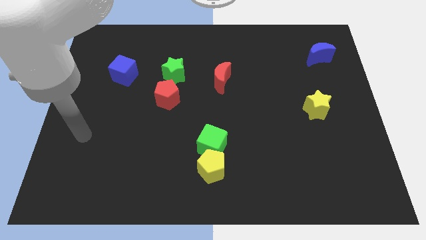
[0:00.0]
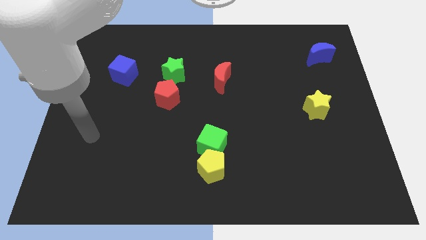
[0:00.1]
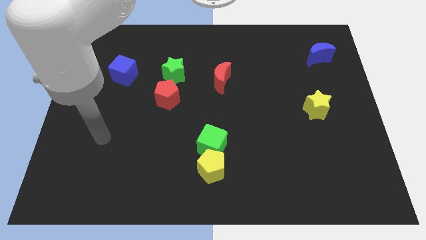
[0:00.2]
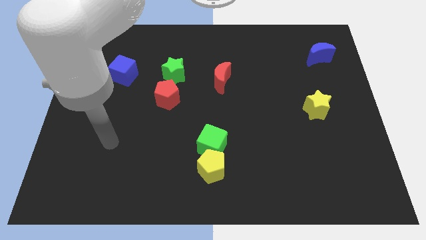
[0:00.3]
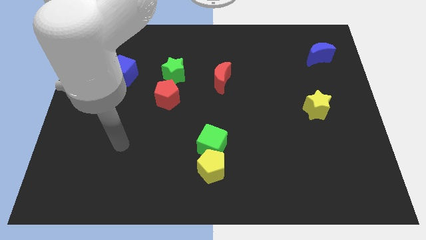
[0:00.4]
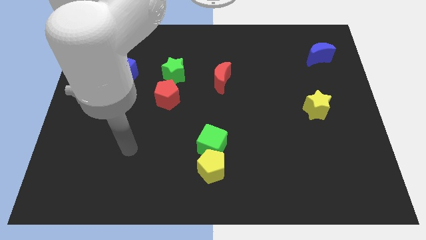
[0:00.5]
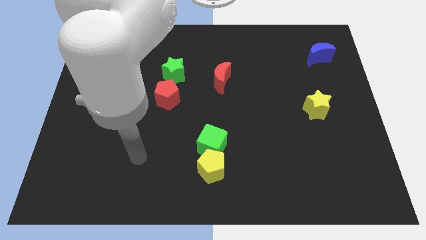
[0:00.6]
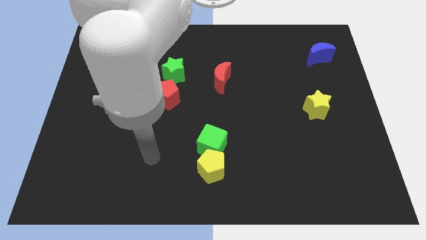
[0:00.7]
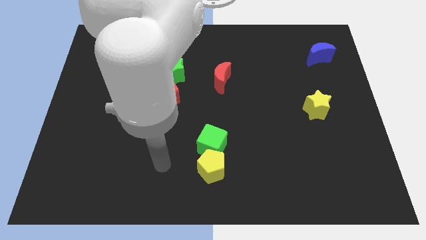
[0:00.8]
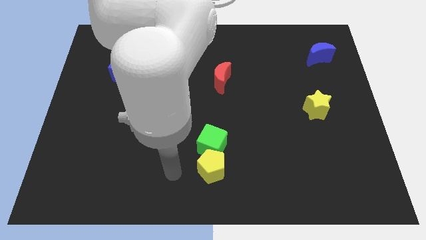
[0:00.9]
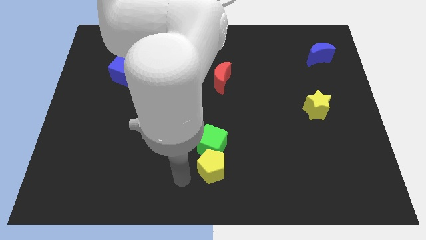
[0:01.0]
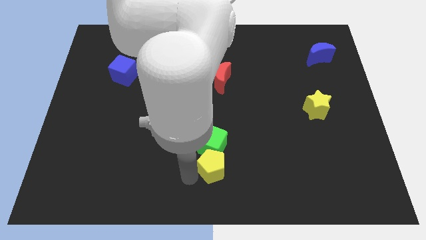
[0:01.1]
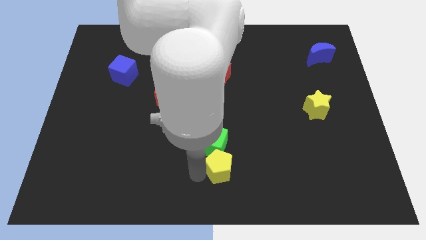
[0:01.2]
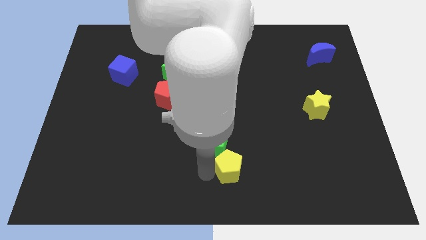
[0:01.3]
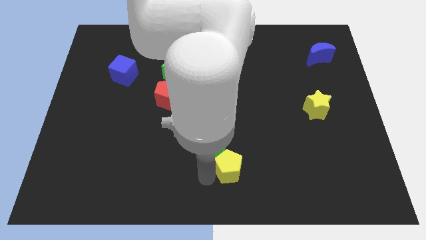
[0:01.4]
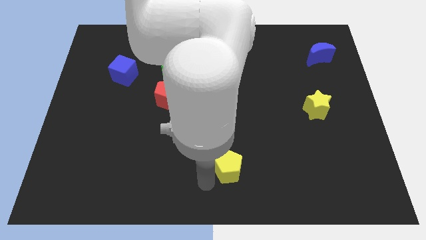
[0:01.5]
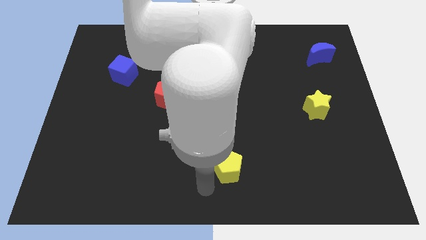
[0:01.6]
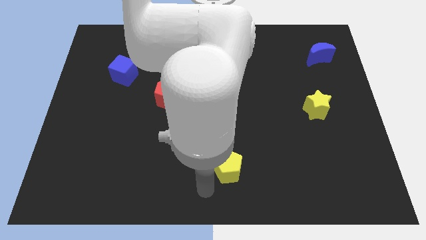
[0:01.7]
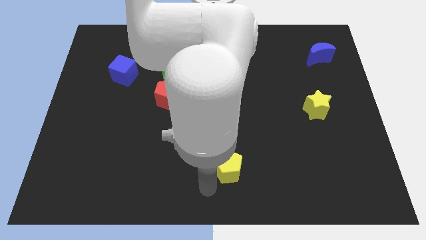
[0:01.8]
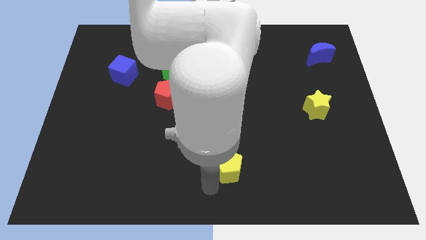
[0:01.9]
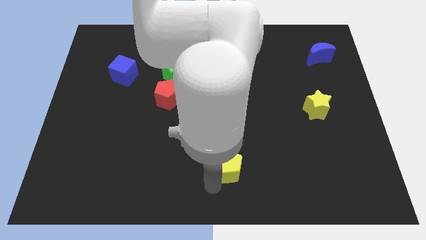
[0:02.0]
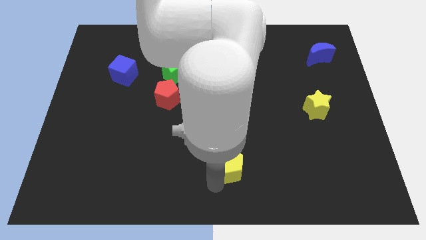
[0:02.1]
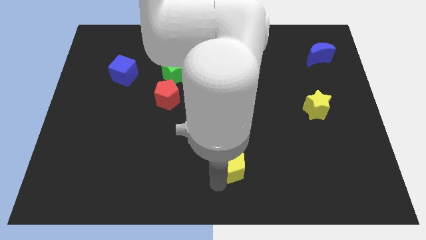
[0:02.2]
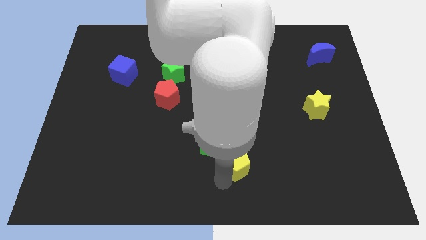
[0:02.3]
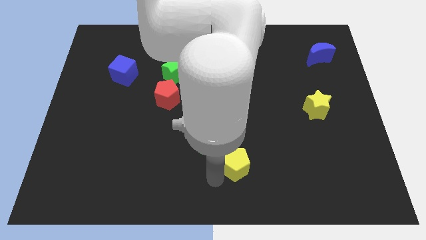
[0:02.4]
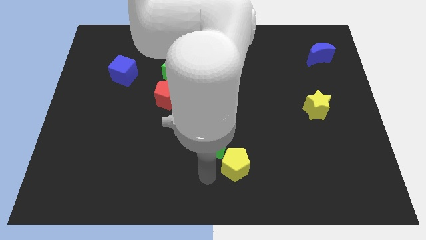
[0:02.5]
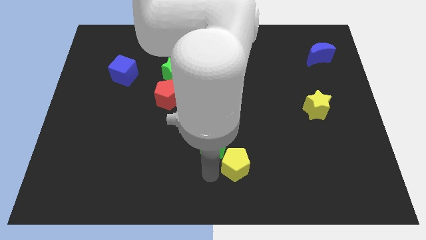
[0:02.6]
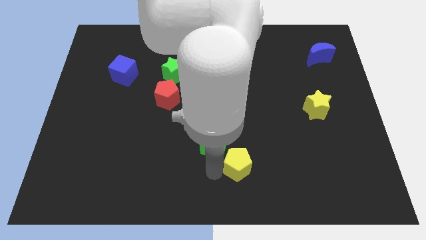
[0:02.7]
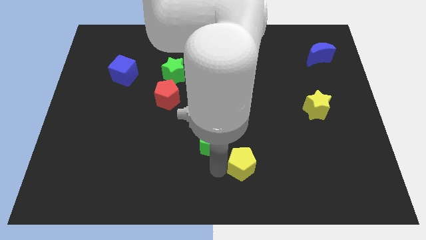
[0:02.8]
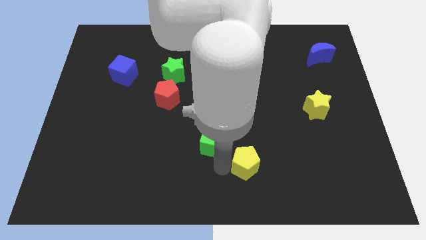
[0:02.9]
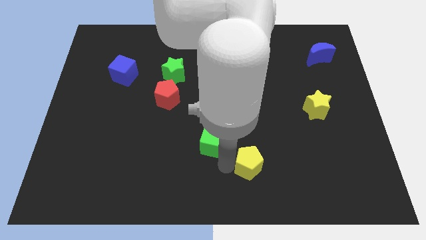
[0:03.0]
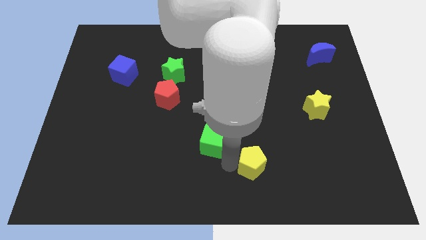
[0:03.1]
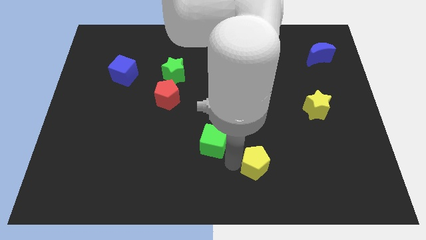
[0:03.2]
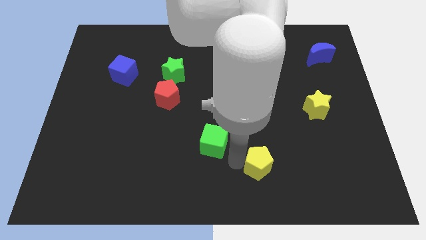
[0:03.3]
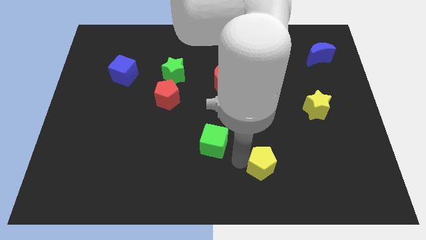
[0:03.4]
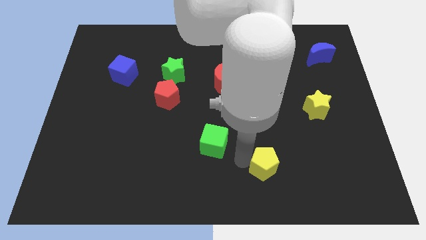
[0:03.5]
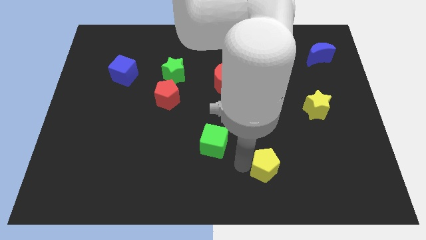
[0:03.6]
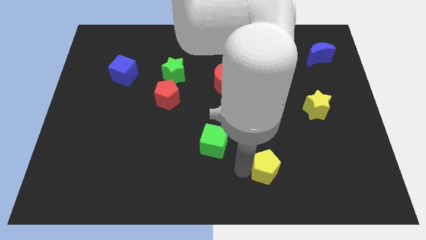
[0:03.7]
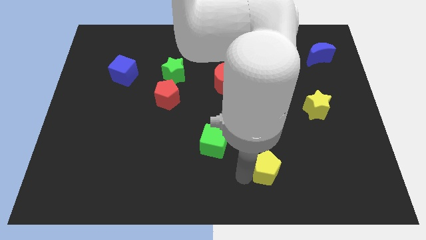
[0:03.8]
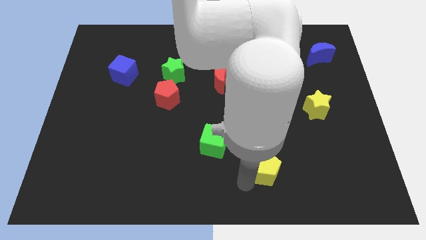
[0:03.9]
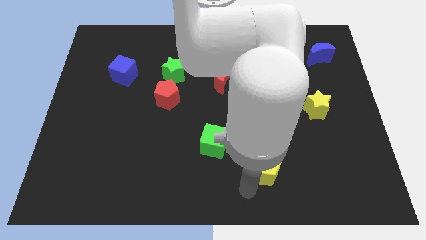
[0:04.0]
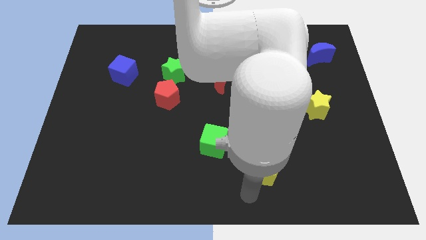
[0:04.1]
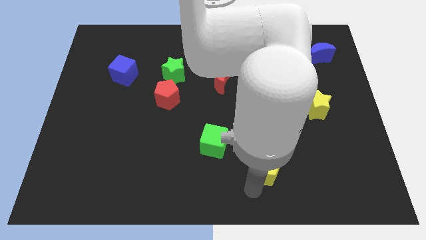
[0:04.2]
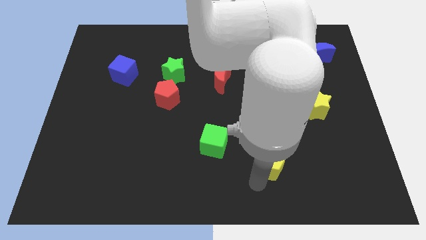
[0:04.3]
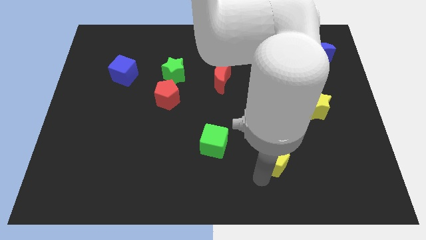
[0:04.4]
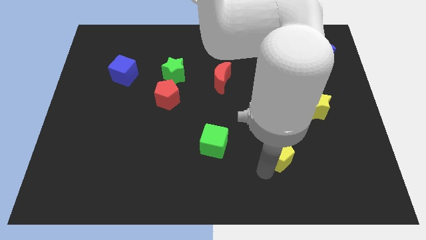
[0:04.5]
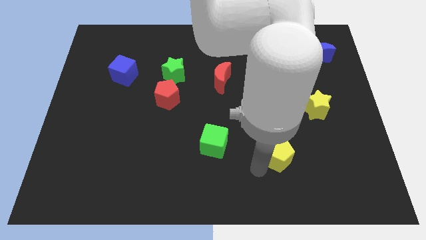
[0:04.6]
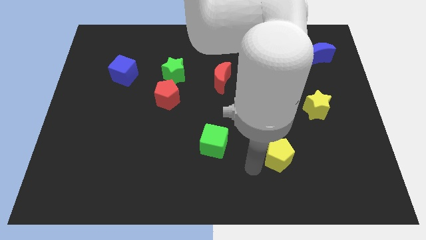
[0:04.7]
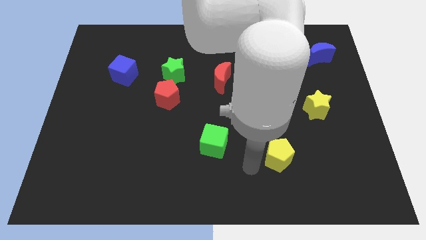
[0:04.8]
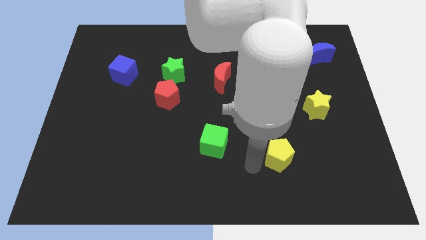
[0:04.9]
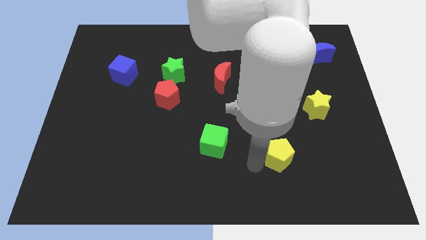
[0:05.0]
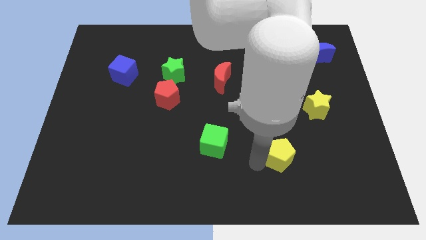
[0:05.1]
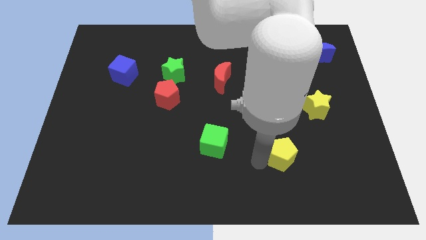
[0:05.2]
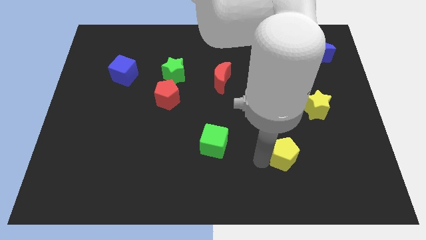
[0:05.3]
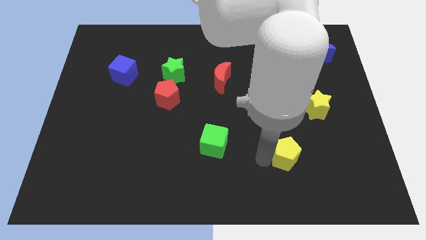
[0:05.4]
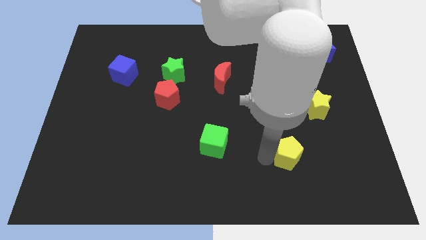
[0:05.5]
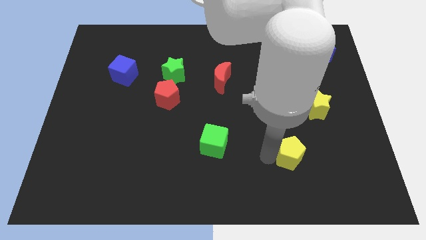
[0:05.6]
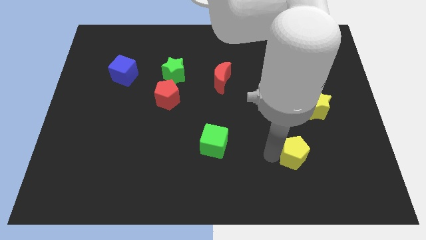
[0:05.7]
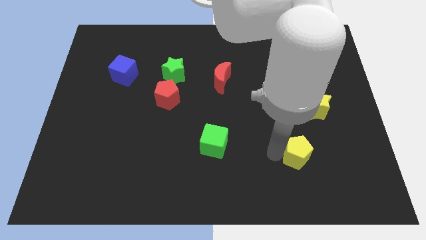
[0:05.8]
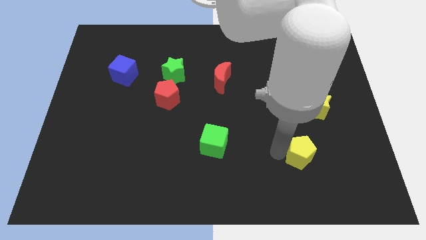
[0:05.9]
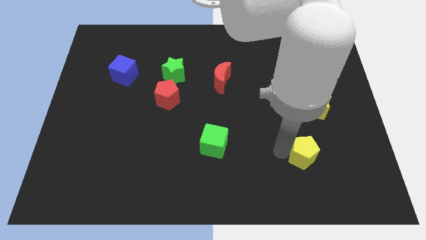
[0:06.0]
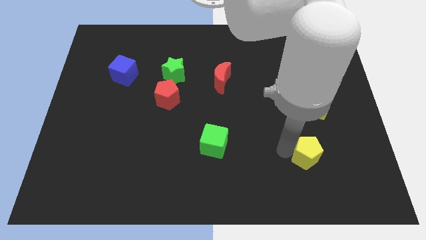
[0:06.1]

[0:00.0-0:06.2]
slide the yellow pentagon below the yellow star

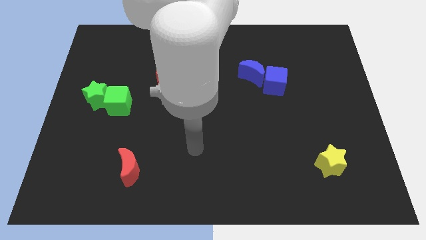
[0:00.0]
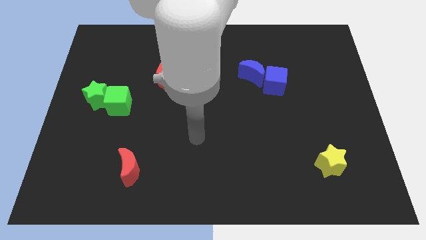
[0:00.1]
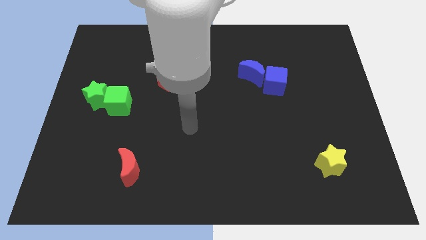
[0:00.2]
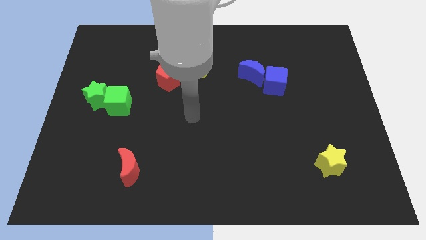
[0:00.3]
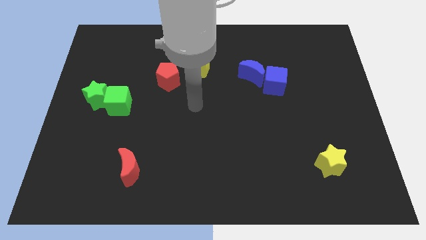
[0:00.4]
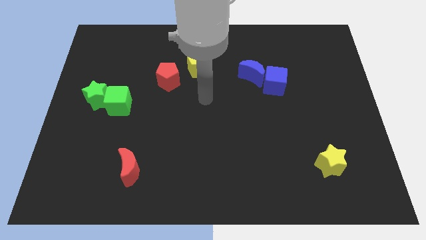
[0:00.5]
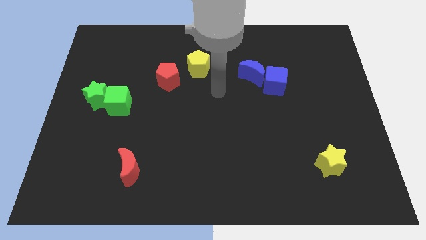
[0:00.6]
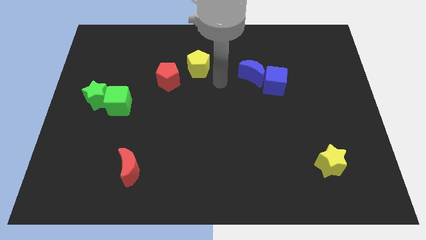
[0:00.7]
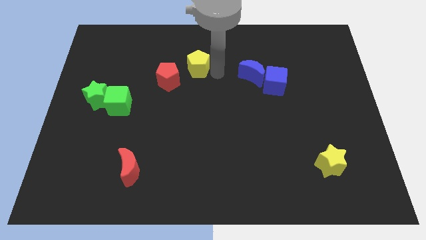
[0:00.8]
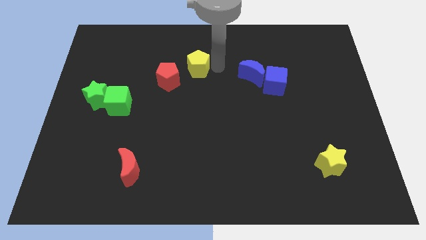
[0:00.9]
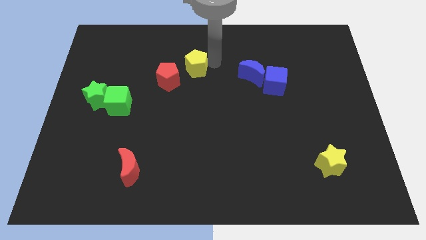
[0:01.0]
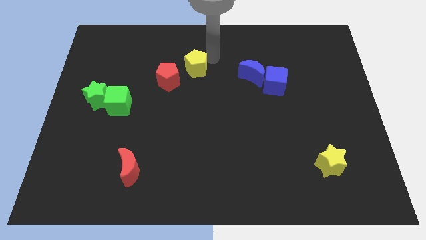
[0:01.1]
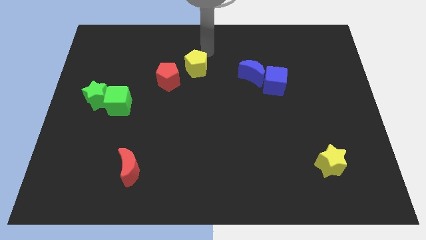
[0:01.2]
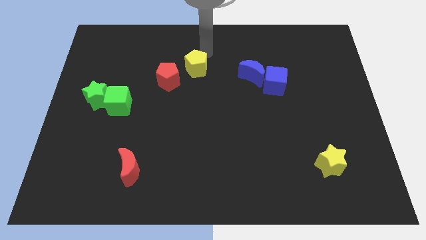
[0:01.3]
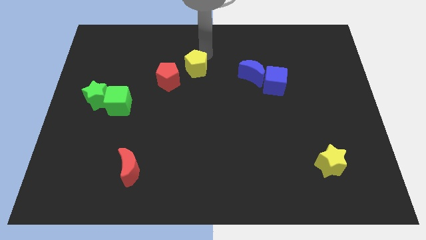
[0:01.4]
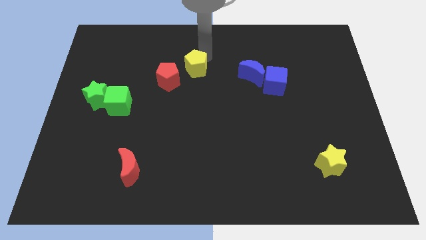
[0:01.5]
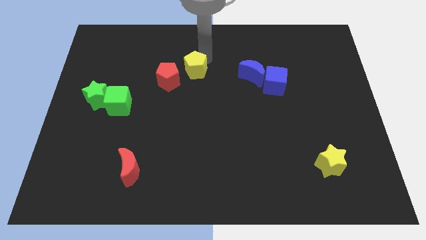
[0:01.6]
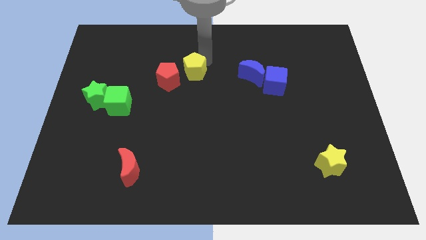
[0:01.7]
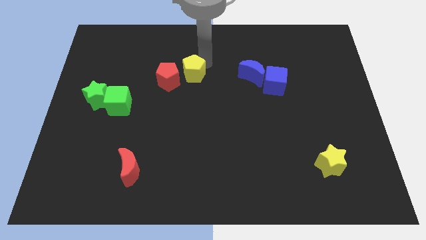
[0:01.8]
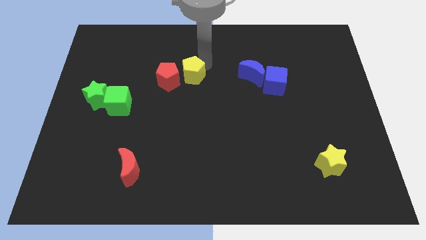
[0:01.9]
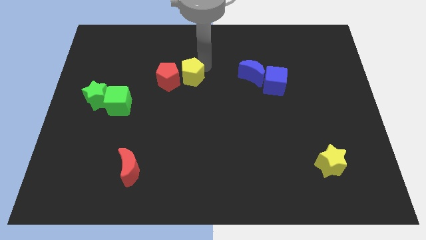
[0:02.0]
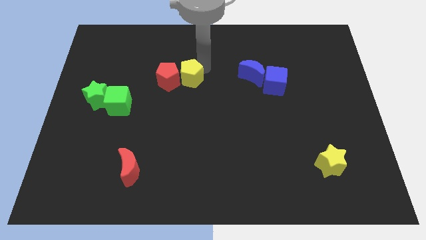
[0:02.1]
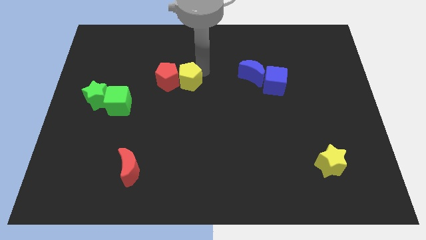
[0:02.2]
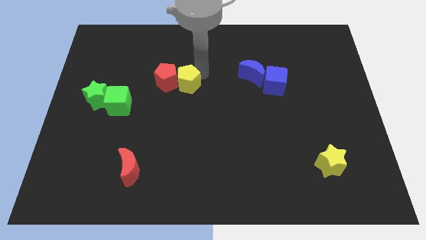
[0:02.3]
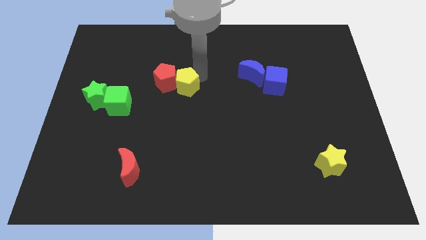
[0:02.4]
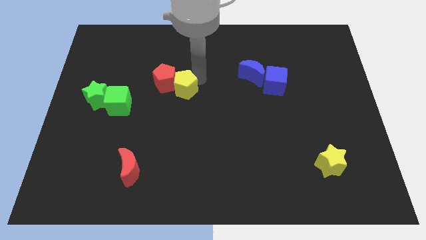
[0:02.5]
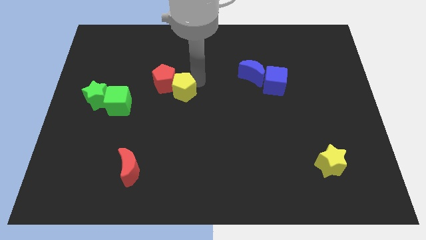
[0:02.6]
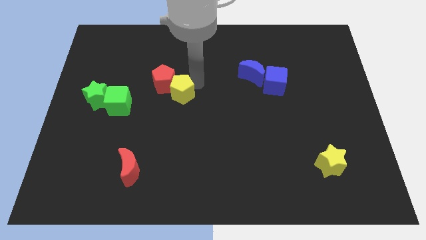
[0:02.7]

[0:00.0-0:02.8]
slide the yellow pentagon to the right of the green cube
